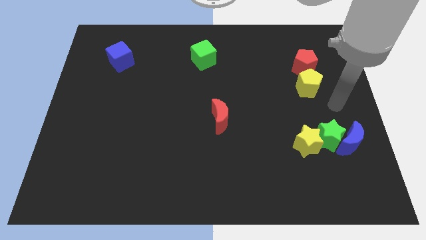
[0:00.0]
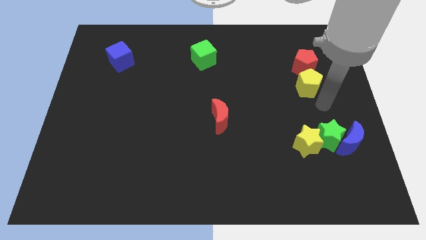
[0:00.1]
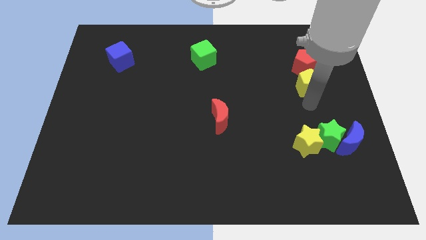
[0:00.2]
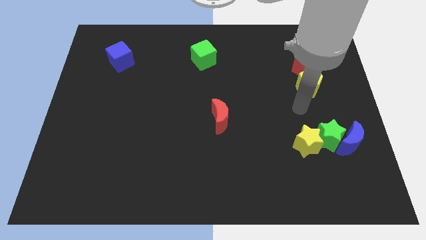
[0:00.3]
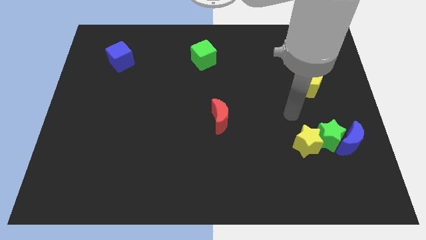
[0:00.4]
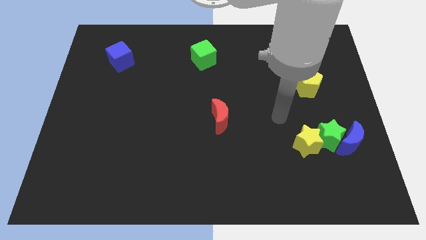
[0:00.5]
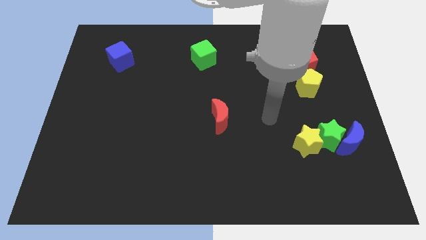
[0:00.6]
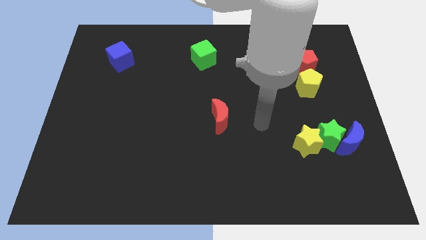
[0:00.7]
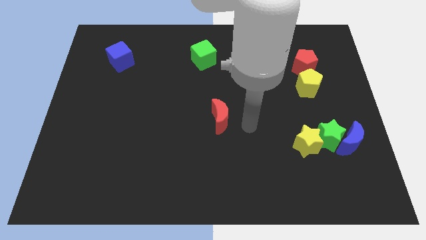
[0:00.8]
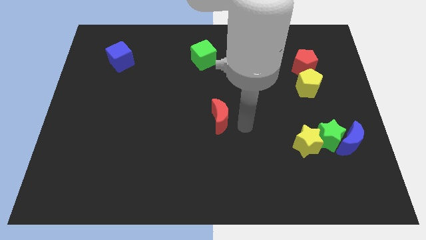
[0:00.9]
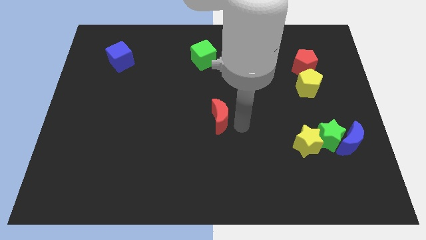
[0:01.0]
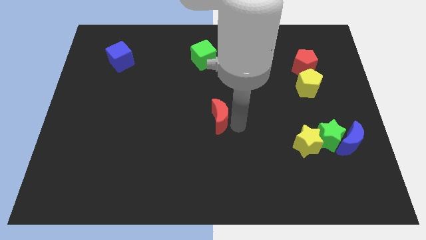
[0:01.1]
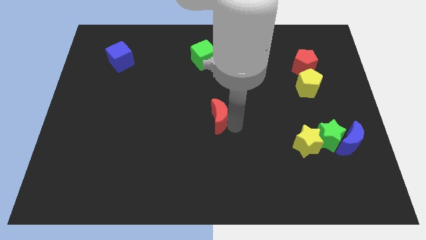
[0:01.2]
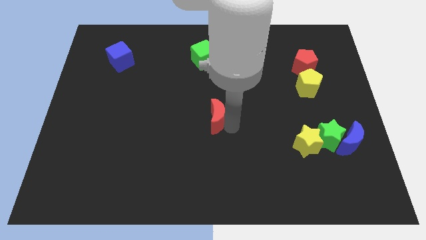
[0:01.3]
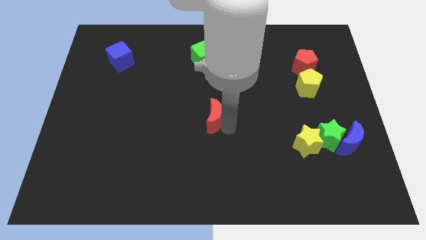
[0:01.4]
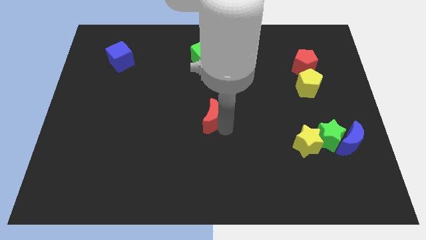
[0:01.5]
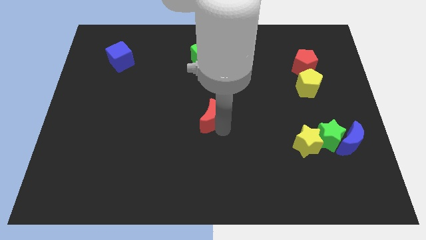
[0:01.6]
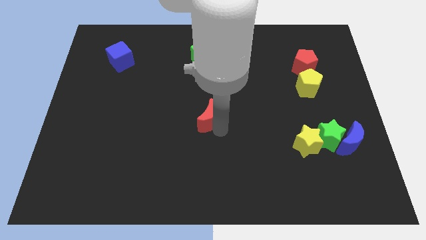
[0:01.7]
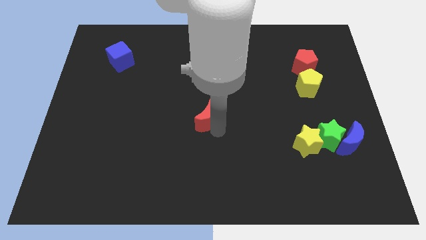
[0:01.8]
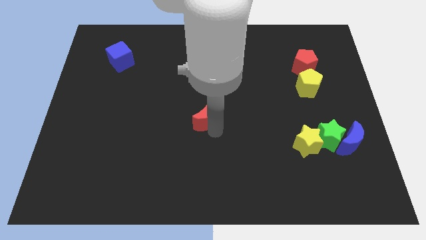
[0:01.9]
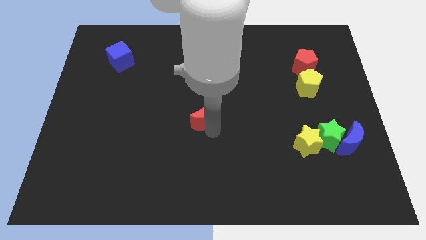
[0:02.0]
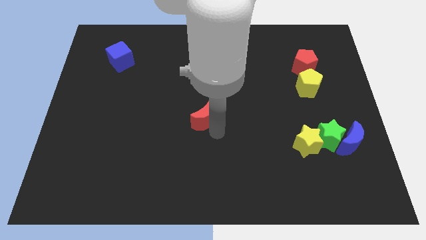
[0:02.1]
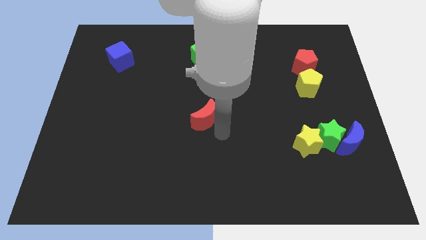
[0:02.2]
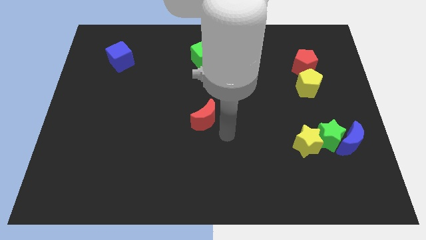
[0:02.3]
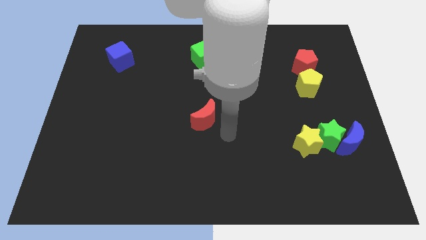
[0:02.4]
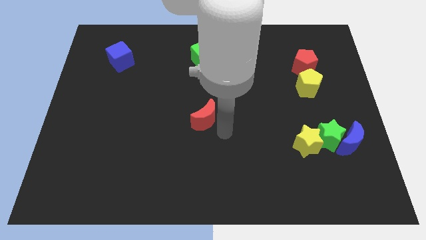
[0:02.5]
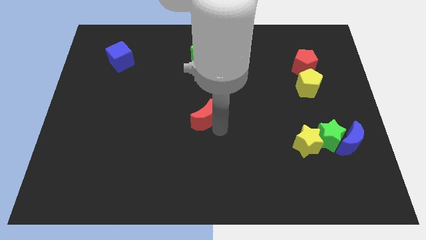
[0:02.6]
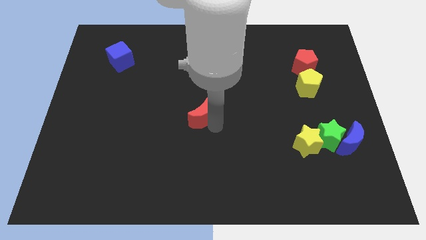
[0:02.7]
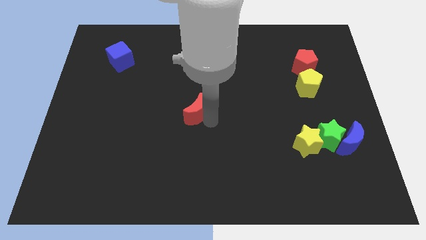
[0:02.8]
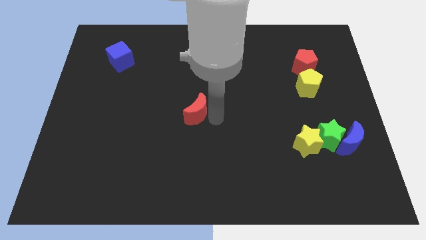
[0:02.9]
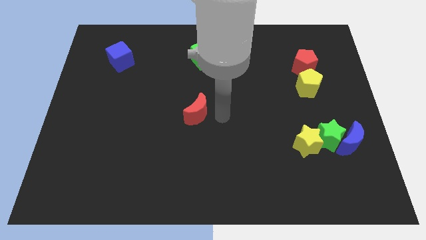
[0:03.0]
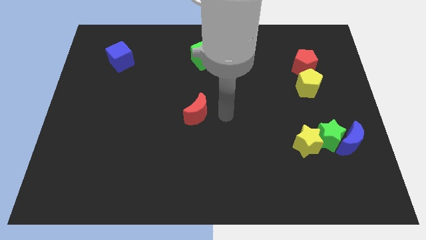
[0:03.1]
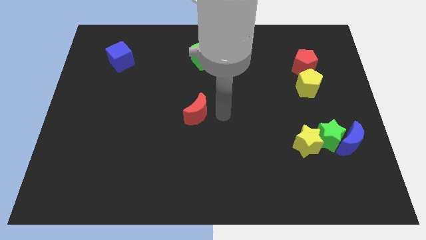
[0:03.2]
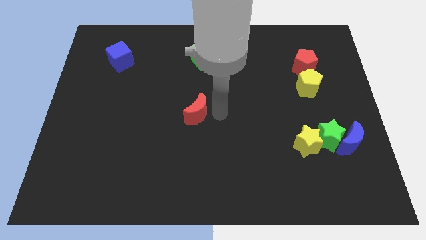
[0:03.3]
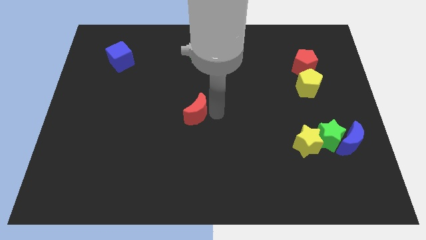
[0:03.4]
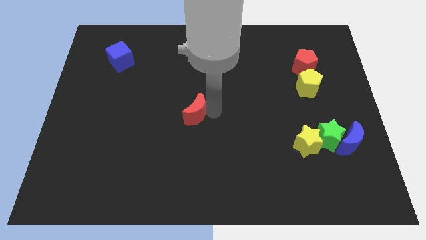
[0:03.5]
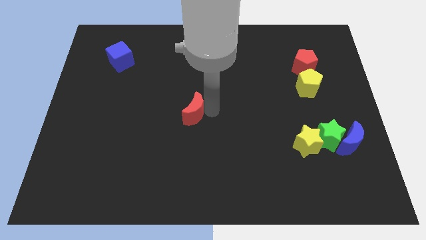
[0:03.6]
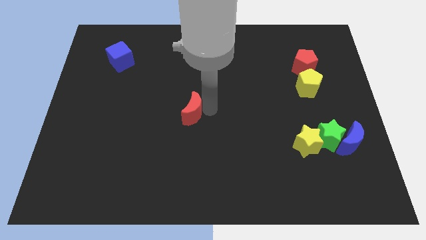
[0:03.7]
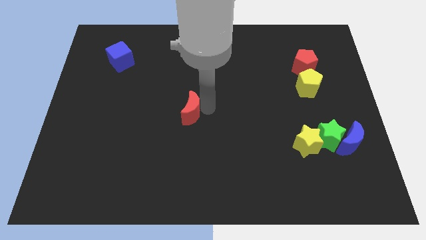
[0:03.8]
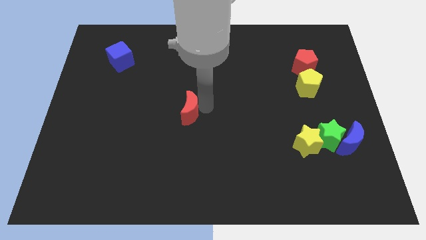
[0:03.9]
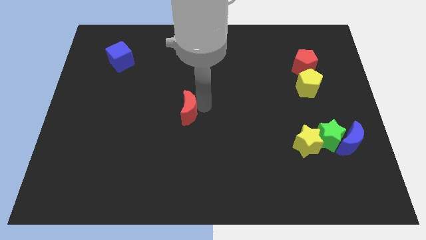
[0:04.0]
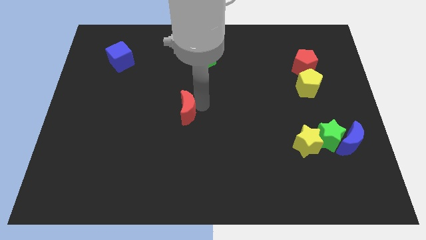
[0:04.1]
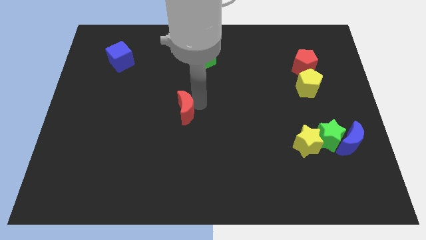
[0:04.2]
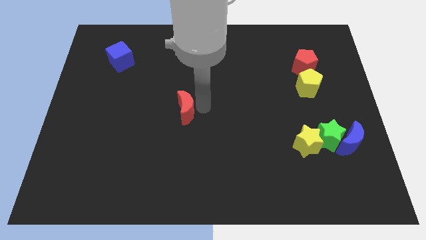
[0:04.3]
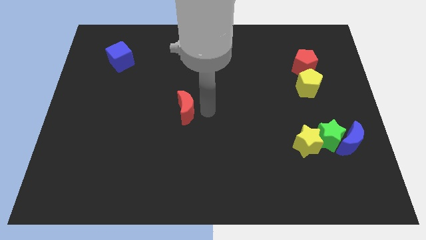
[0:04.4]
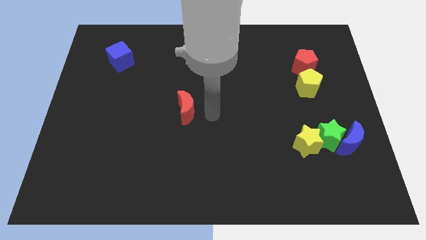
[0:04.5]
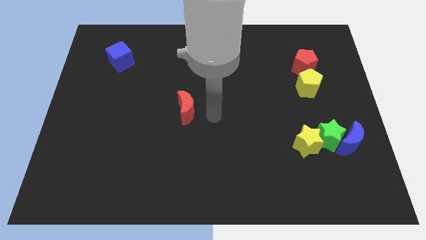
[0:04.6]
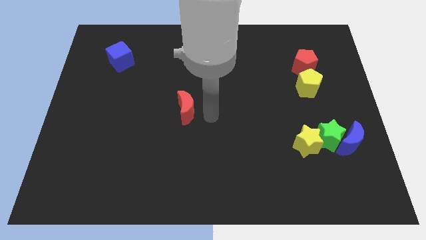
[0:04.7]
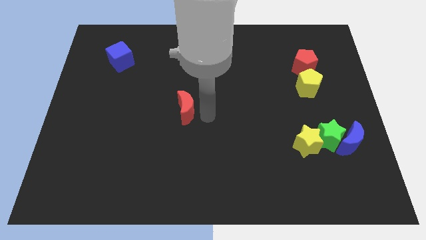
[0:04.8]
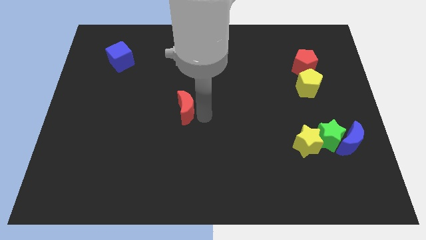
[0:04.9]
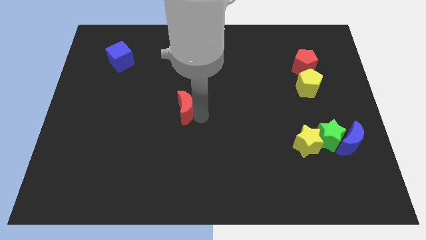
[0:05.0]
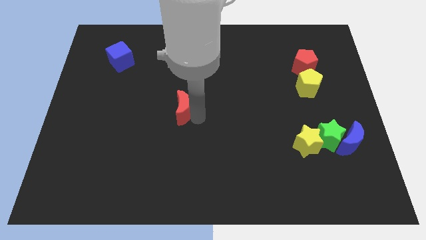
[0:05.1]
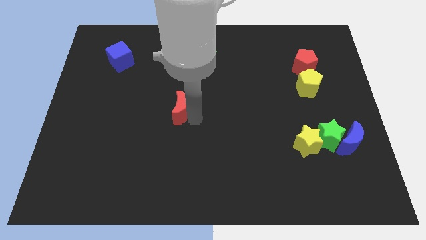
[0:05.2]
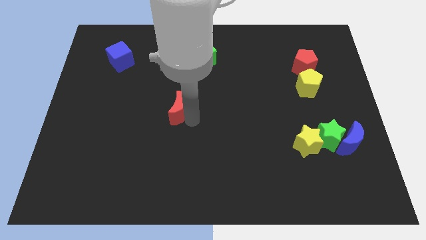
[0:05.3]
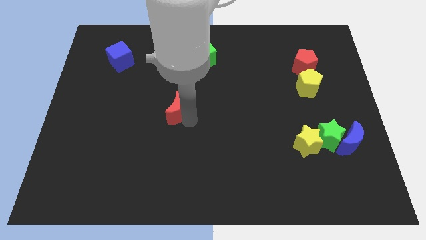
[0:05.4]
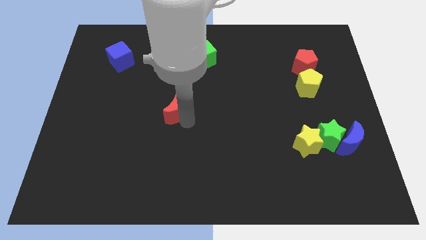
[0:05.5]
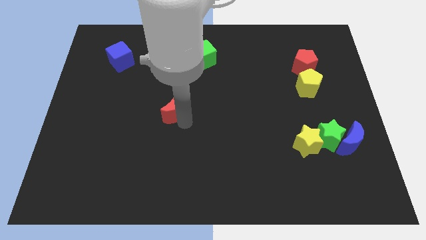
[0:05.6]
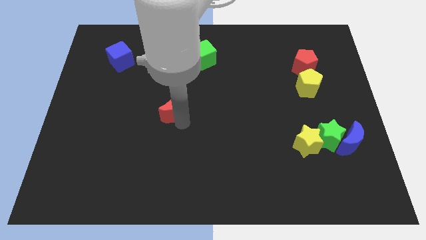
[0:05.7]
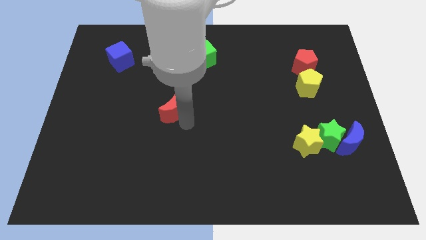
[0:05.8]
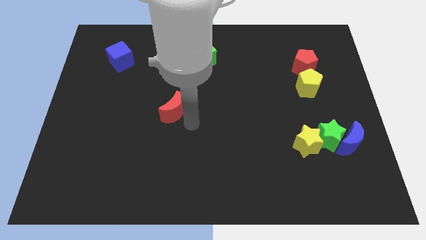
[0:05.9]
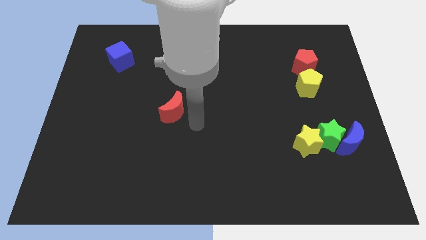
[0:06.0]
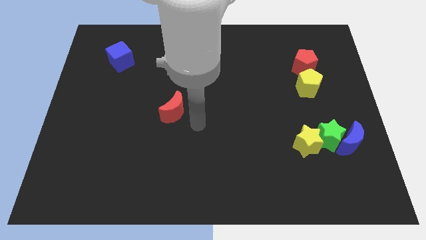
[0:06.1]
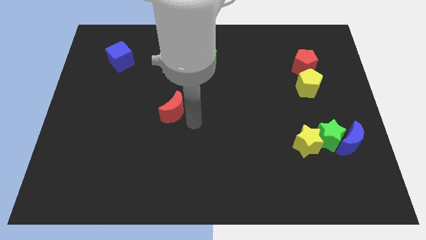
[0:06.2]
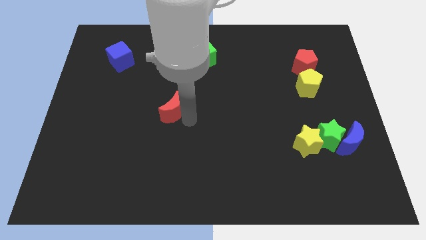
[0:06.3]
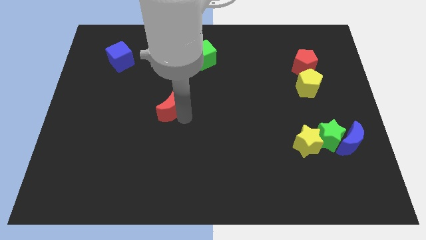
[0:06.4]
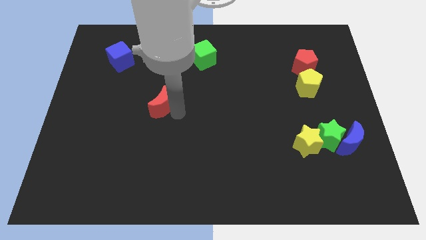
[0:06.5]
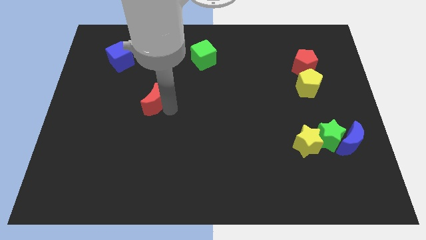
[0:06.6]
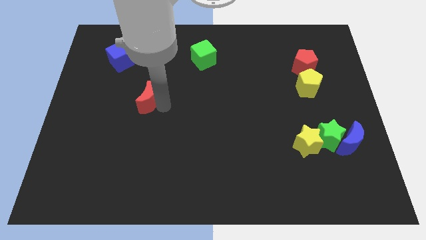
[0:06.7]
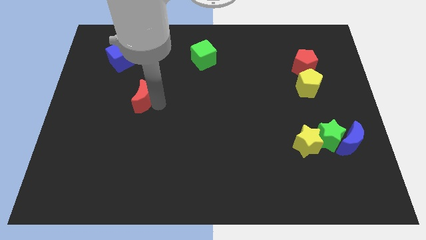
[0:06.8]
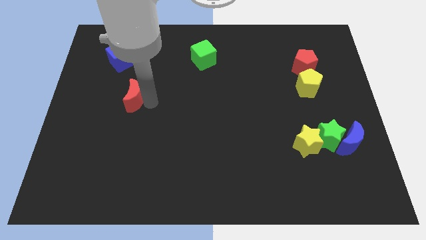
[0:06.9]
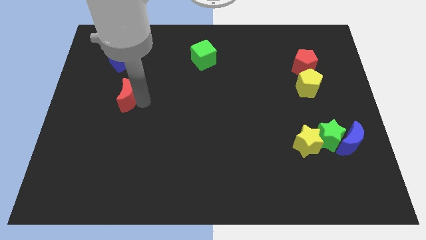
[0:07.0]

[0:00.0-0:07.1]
push the red moon to the bottom side of the blue cube
